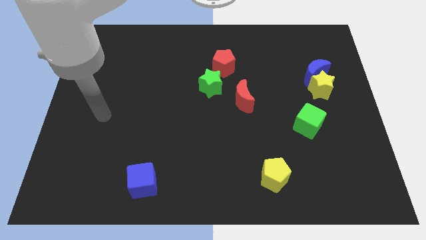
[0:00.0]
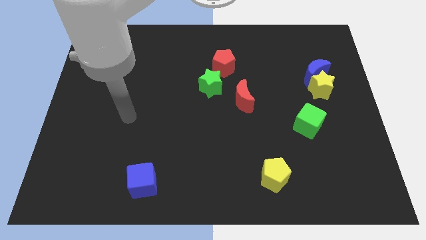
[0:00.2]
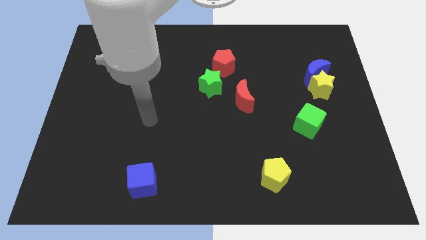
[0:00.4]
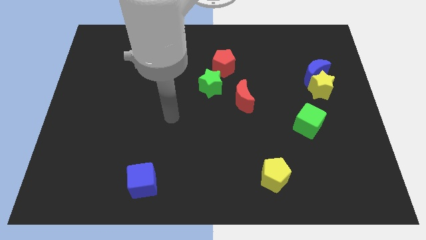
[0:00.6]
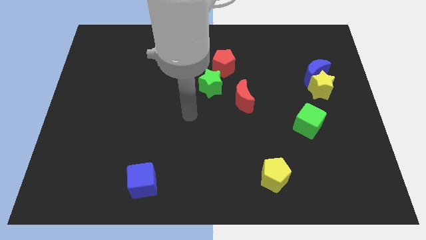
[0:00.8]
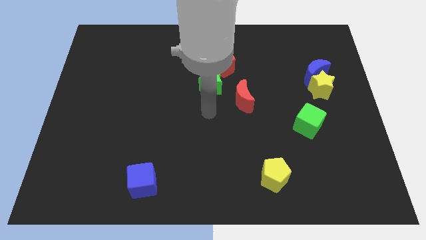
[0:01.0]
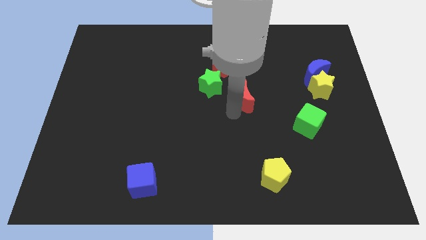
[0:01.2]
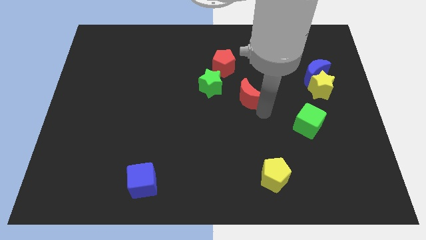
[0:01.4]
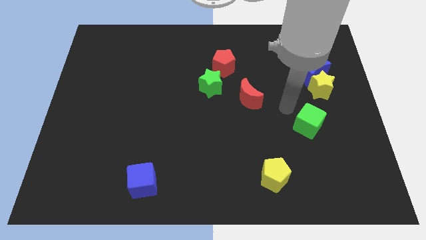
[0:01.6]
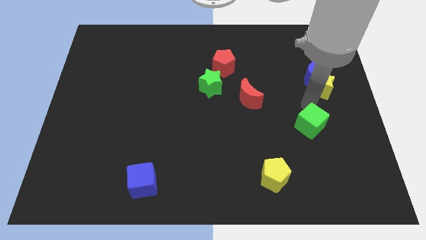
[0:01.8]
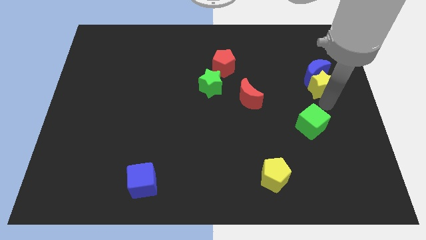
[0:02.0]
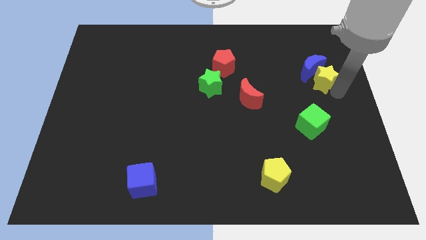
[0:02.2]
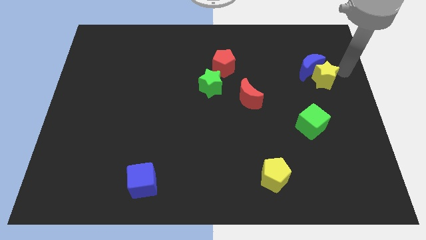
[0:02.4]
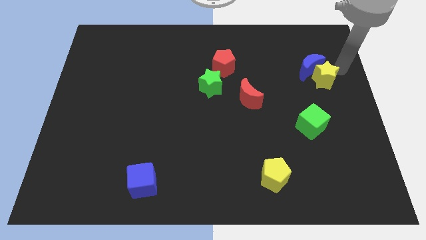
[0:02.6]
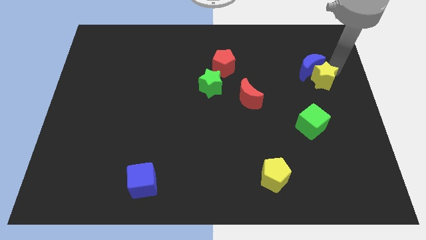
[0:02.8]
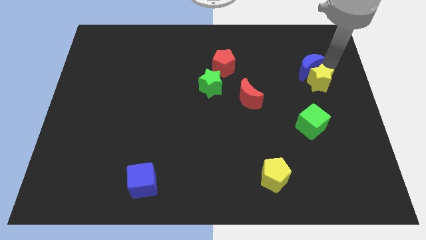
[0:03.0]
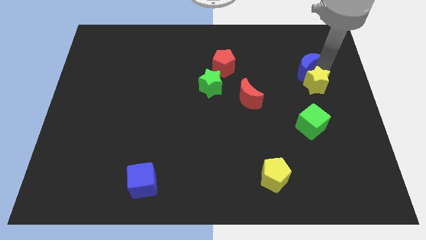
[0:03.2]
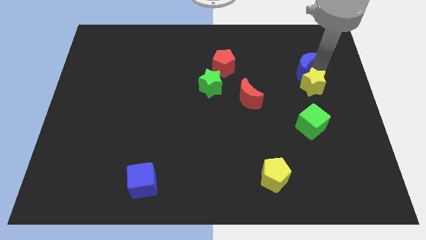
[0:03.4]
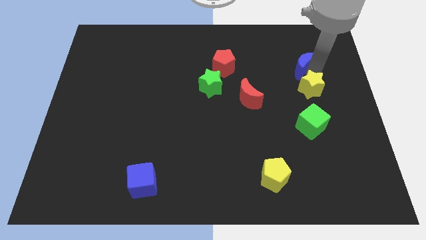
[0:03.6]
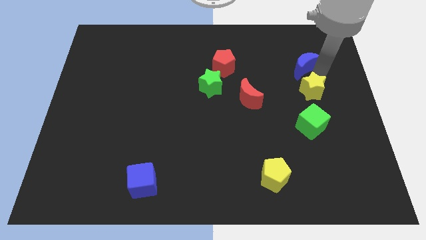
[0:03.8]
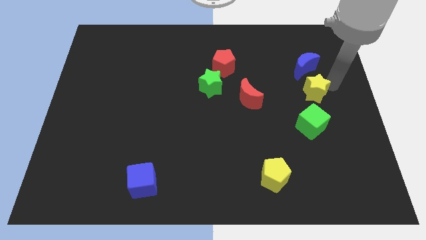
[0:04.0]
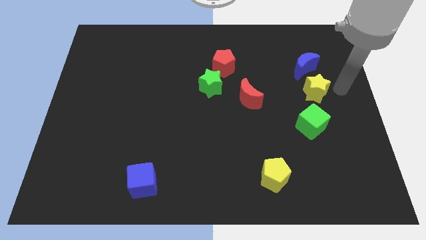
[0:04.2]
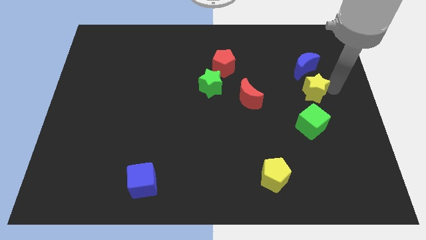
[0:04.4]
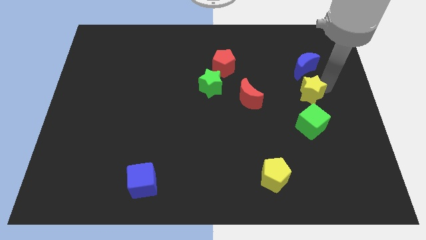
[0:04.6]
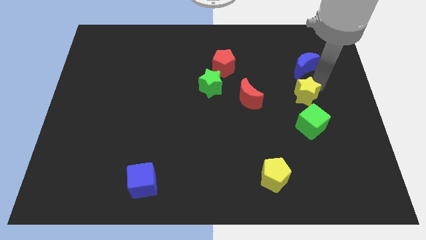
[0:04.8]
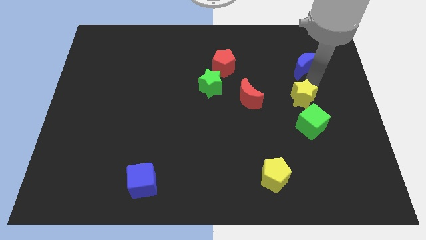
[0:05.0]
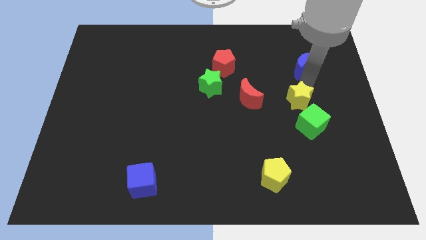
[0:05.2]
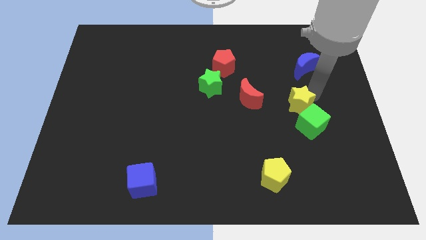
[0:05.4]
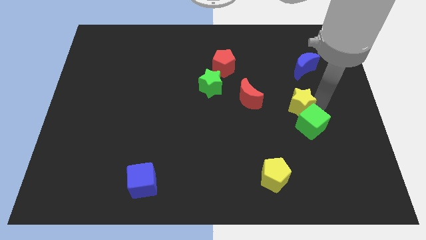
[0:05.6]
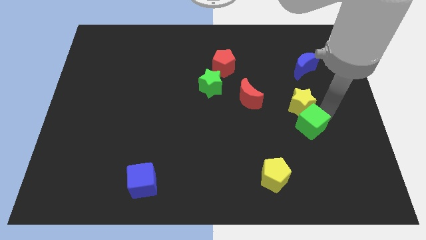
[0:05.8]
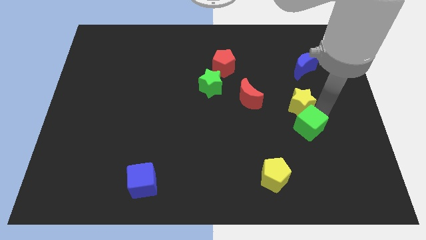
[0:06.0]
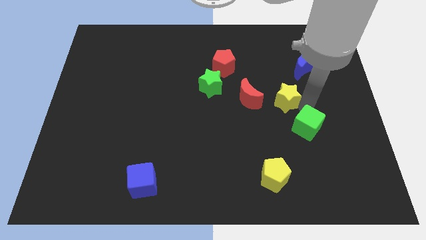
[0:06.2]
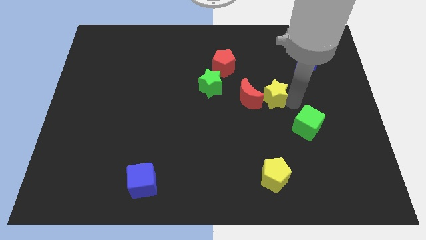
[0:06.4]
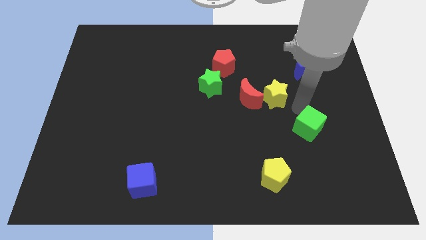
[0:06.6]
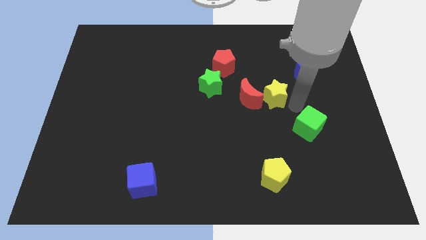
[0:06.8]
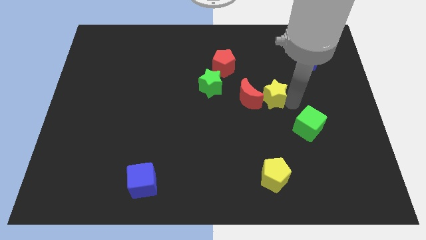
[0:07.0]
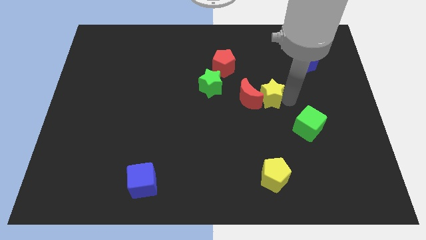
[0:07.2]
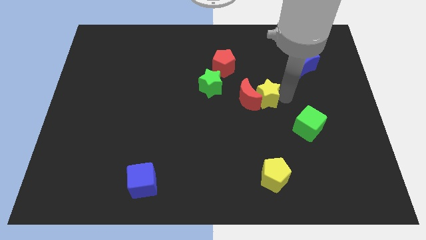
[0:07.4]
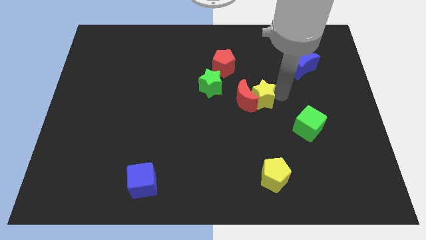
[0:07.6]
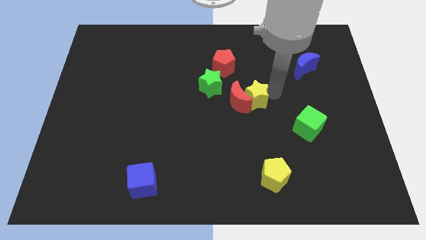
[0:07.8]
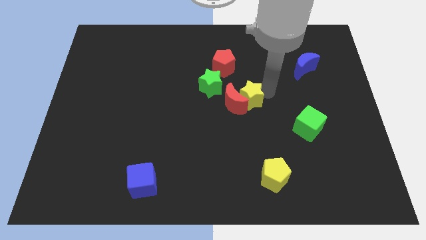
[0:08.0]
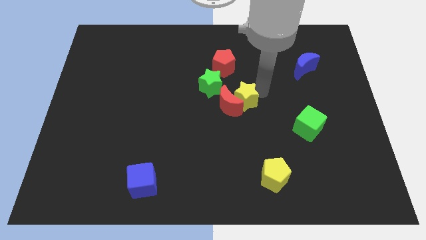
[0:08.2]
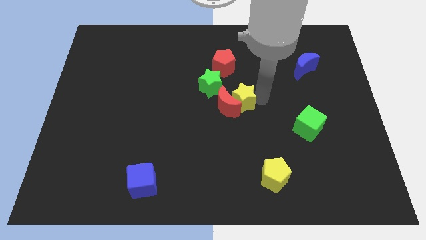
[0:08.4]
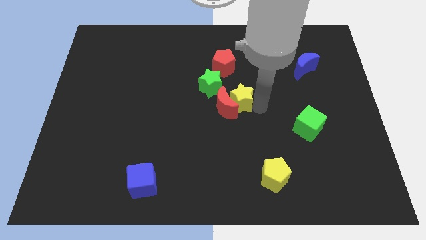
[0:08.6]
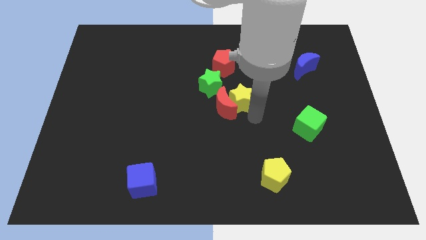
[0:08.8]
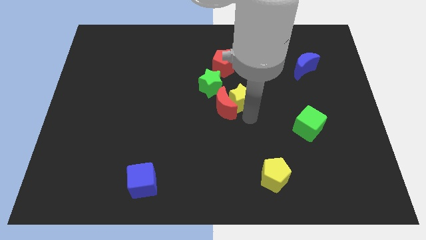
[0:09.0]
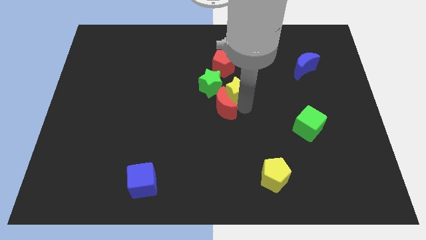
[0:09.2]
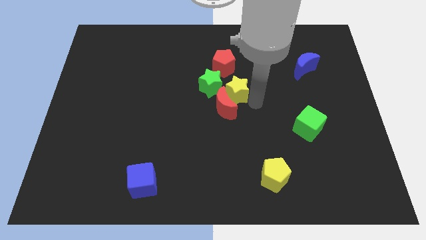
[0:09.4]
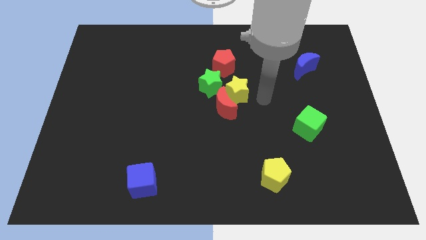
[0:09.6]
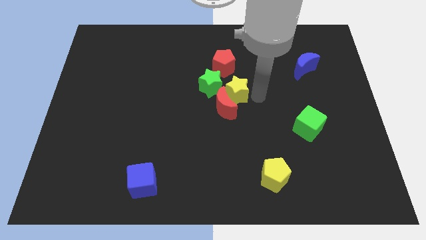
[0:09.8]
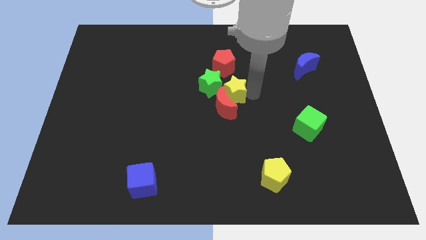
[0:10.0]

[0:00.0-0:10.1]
push the yellow star to the green star

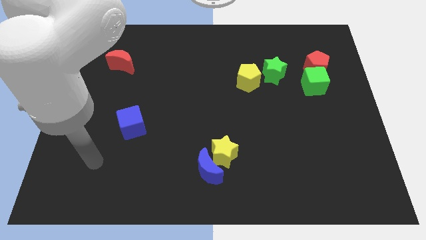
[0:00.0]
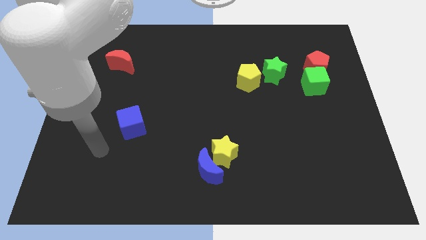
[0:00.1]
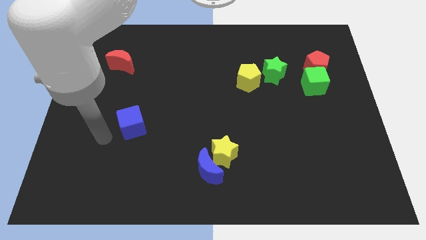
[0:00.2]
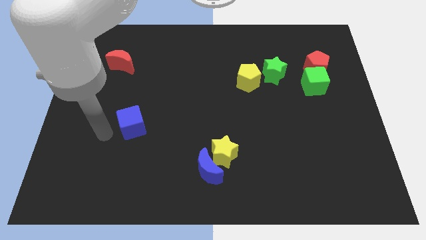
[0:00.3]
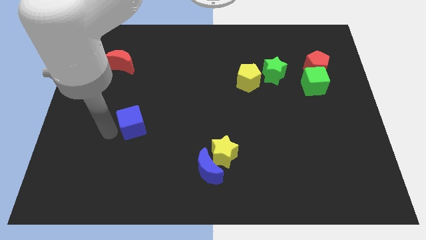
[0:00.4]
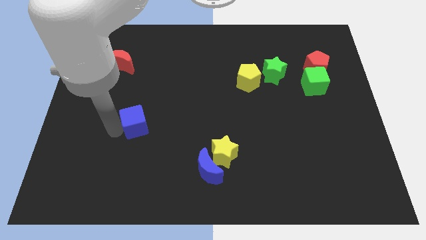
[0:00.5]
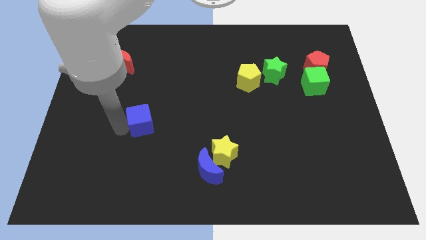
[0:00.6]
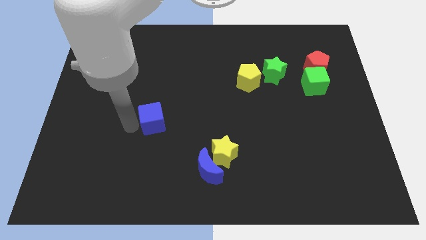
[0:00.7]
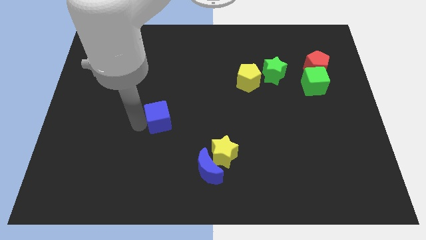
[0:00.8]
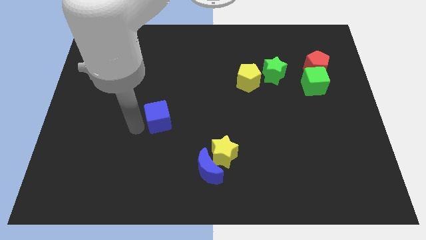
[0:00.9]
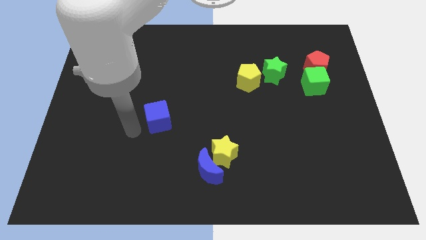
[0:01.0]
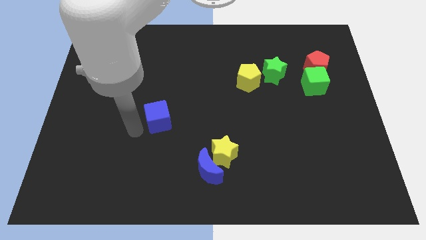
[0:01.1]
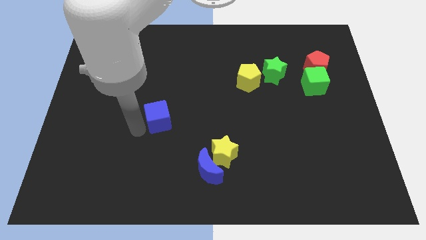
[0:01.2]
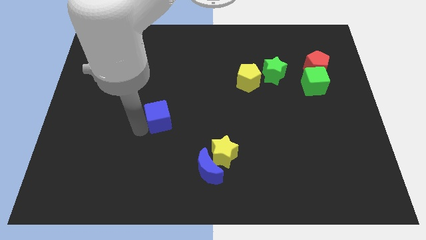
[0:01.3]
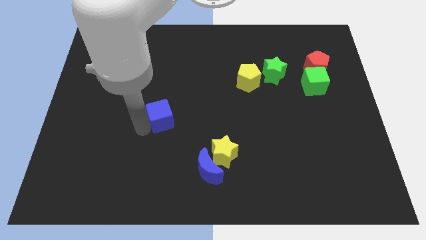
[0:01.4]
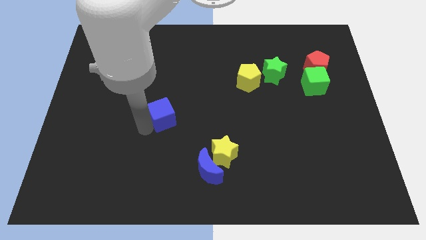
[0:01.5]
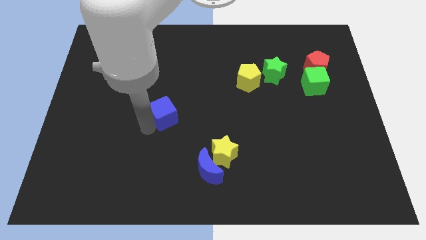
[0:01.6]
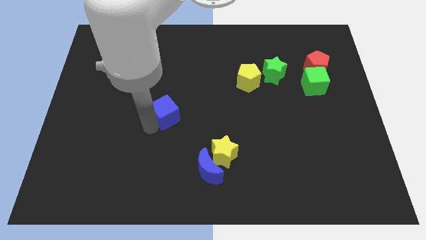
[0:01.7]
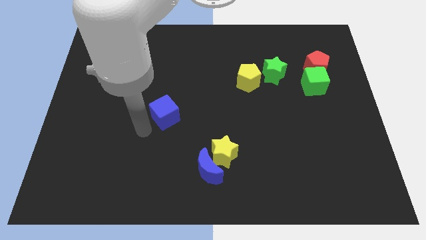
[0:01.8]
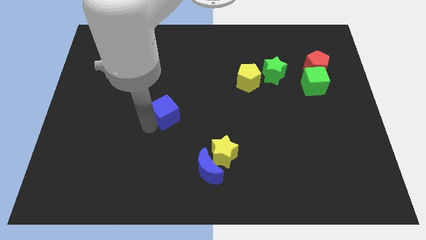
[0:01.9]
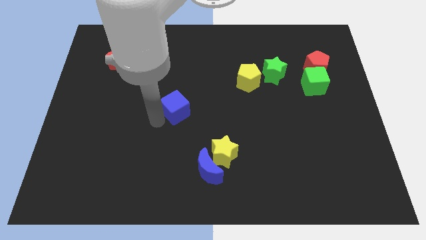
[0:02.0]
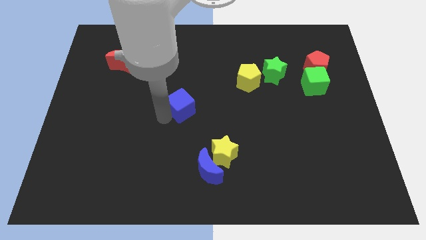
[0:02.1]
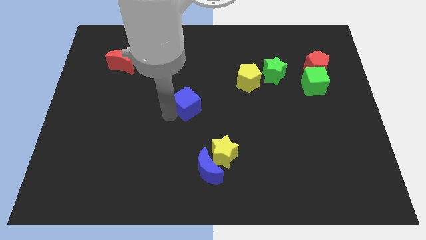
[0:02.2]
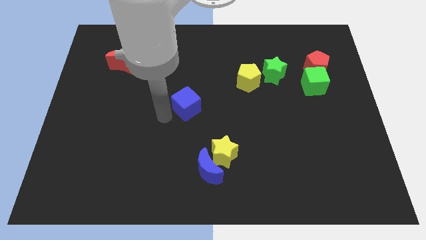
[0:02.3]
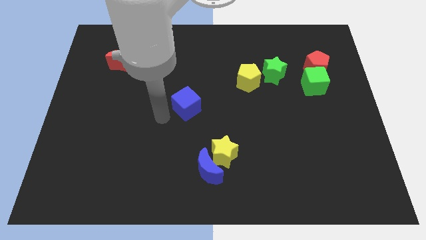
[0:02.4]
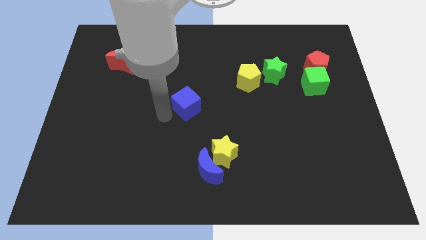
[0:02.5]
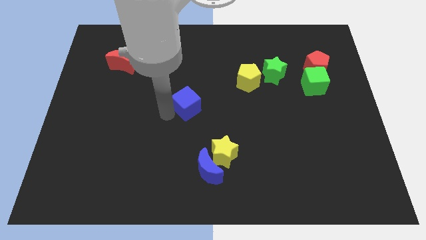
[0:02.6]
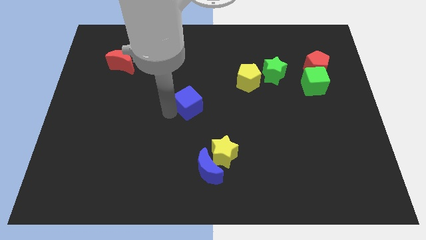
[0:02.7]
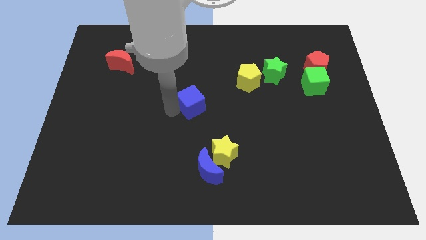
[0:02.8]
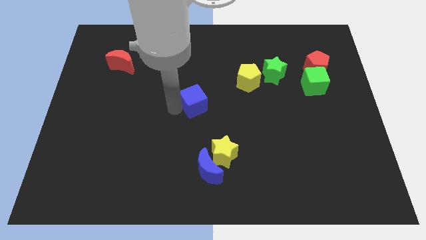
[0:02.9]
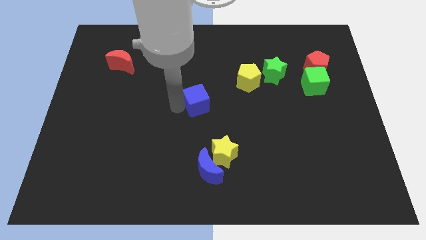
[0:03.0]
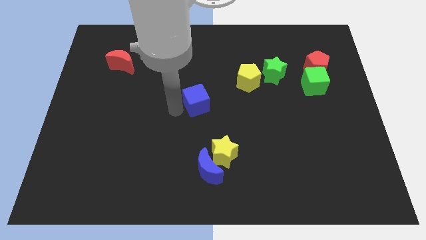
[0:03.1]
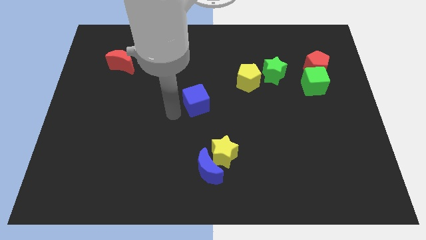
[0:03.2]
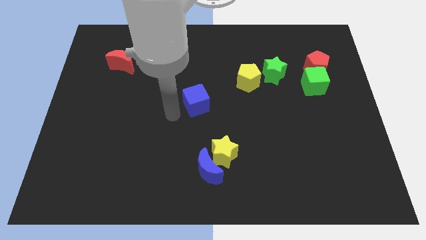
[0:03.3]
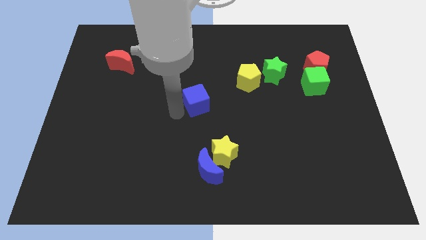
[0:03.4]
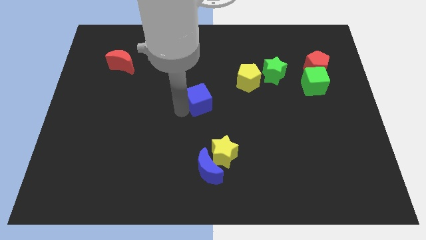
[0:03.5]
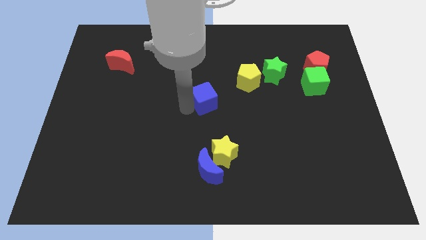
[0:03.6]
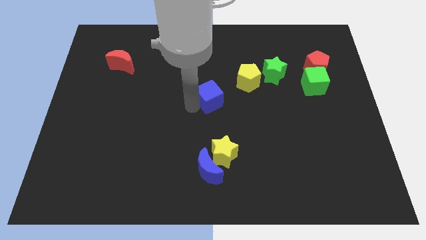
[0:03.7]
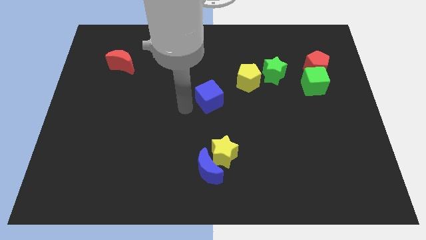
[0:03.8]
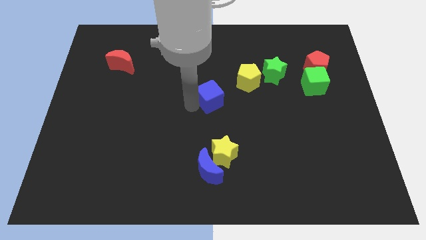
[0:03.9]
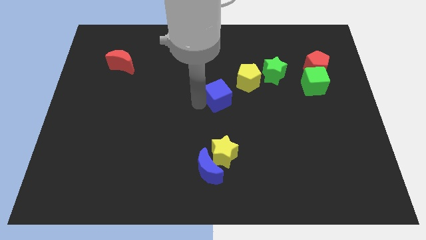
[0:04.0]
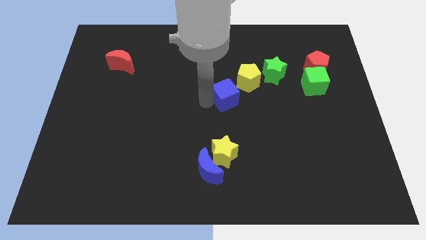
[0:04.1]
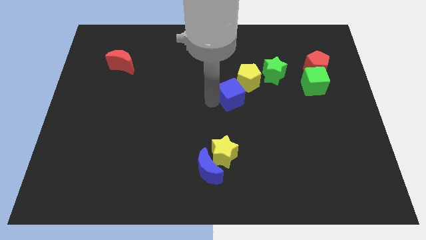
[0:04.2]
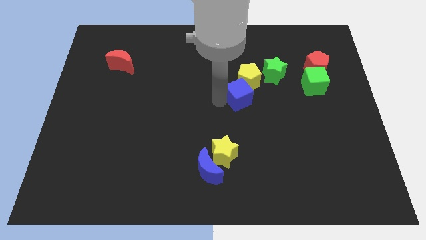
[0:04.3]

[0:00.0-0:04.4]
push the blue cube to the yellow pentagon
